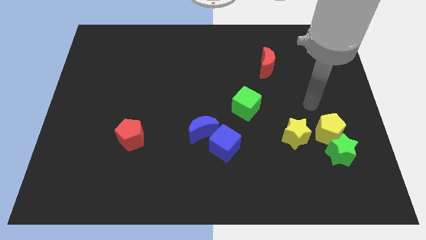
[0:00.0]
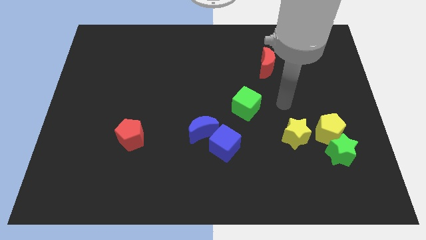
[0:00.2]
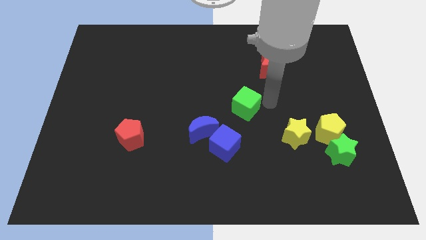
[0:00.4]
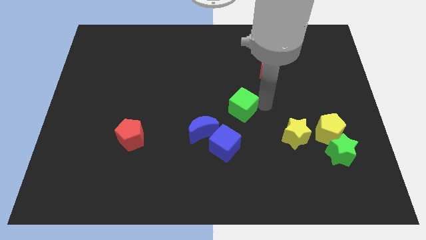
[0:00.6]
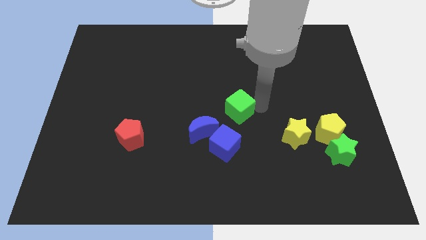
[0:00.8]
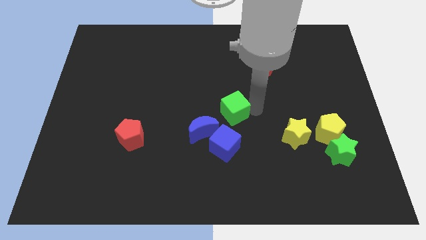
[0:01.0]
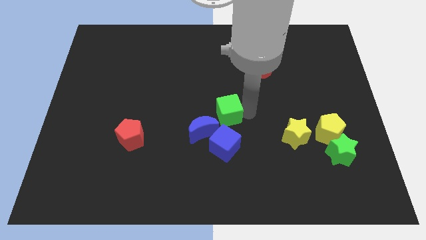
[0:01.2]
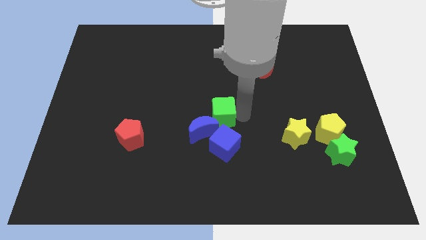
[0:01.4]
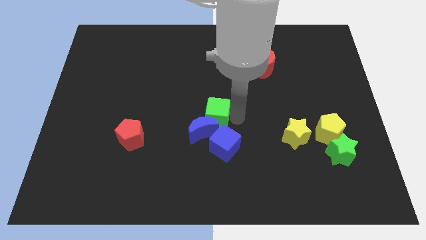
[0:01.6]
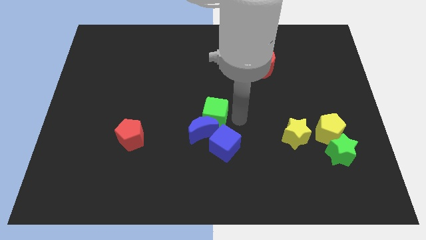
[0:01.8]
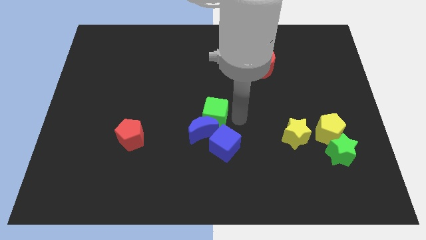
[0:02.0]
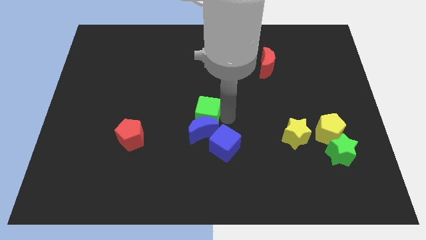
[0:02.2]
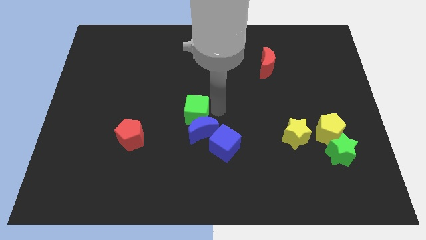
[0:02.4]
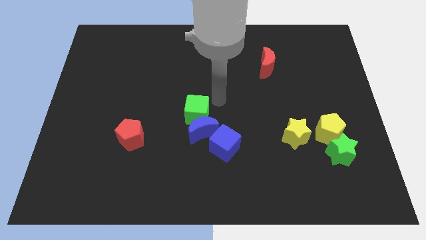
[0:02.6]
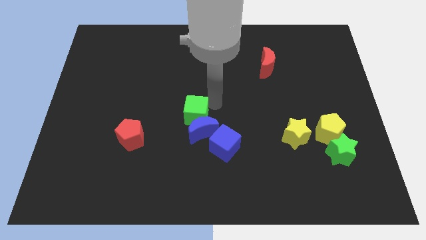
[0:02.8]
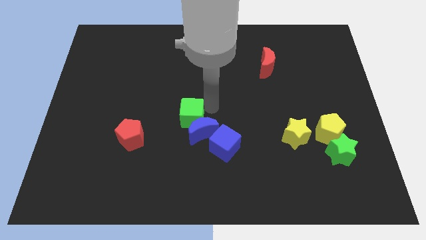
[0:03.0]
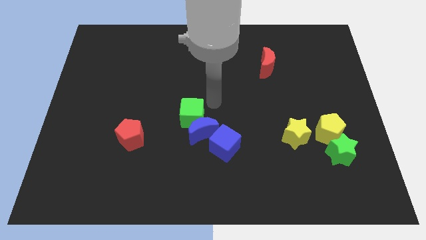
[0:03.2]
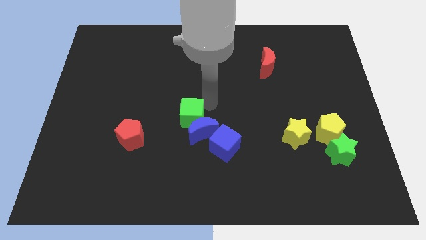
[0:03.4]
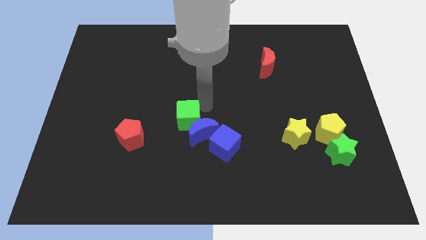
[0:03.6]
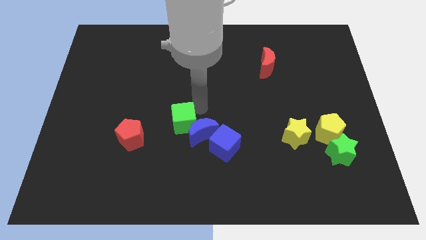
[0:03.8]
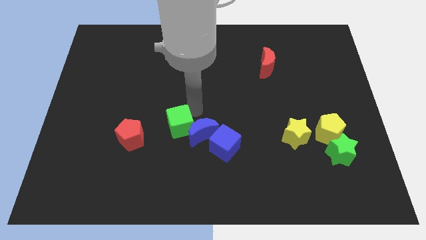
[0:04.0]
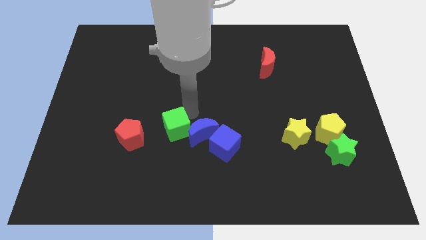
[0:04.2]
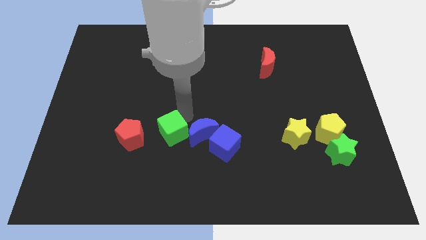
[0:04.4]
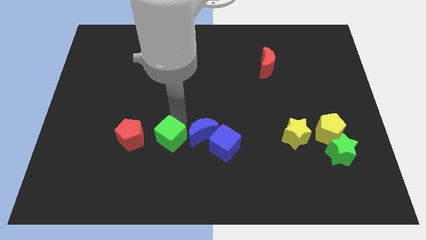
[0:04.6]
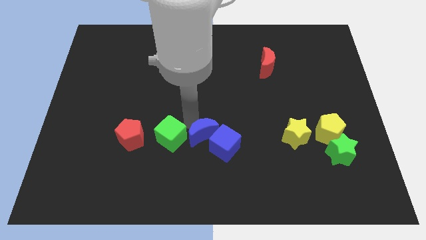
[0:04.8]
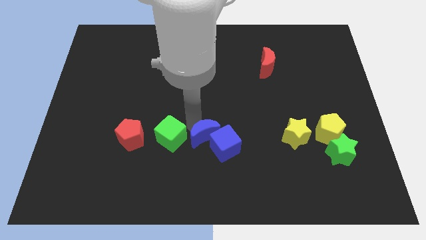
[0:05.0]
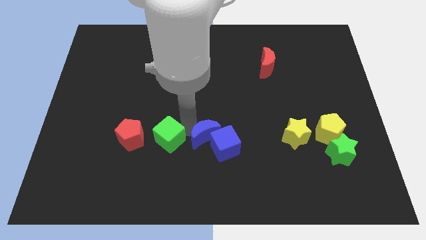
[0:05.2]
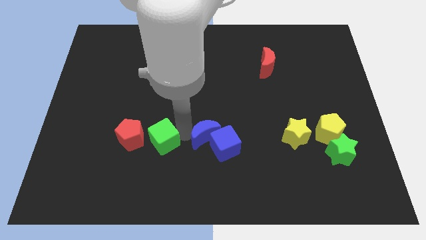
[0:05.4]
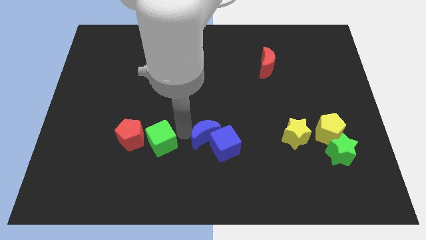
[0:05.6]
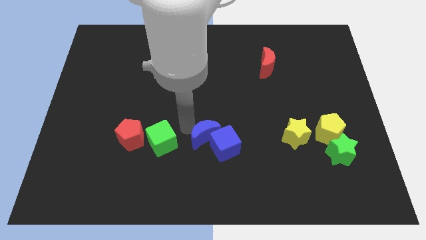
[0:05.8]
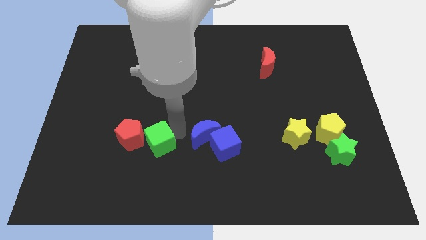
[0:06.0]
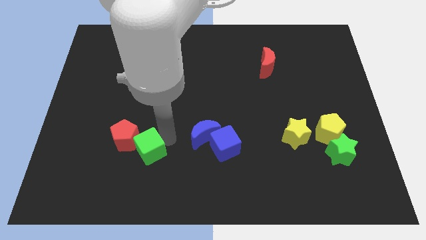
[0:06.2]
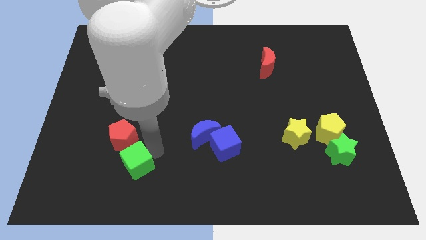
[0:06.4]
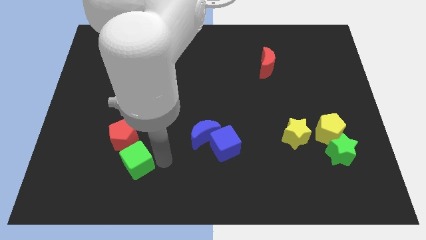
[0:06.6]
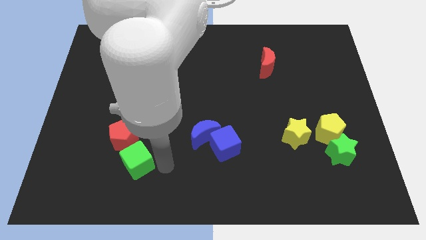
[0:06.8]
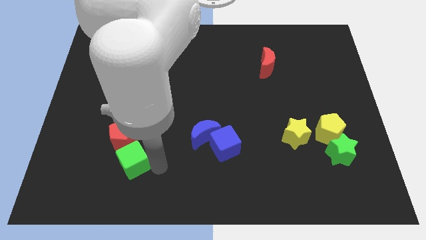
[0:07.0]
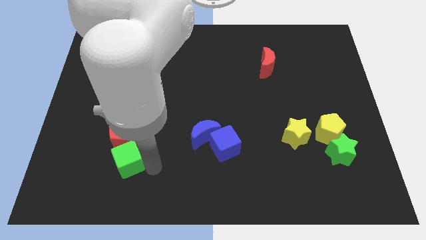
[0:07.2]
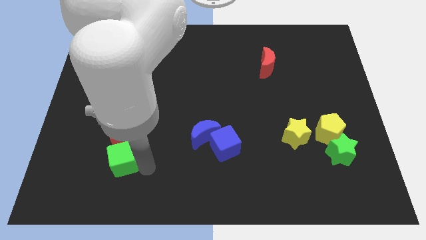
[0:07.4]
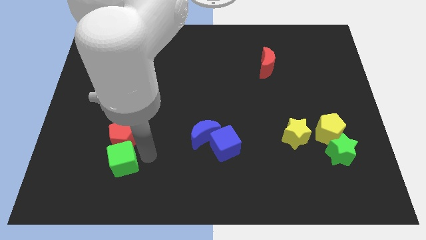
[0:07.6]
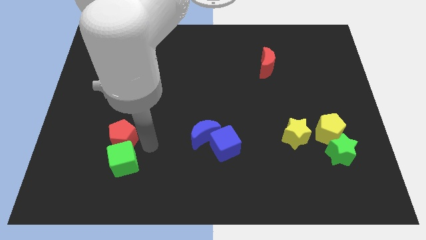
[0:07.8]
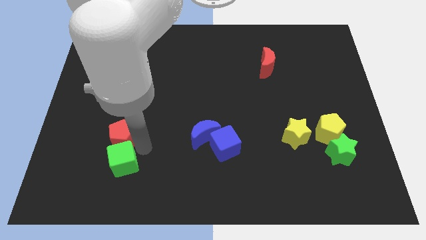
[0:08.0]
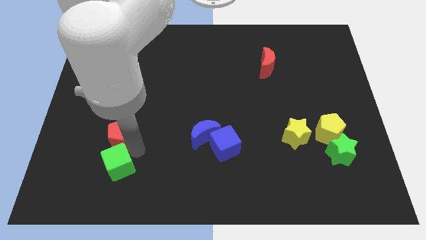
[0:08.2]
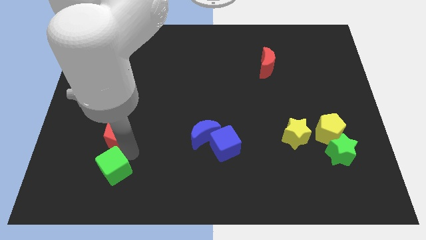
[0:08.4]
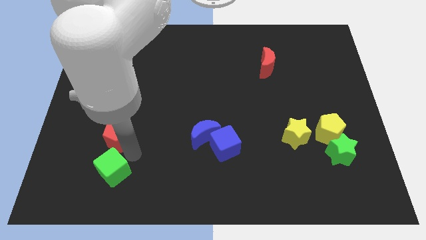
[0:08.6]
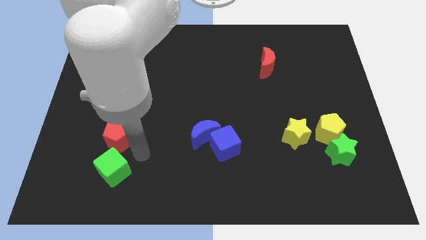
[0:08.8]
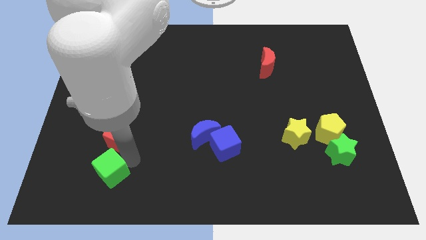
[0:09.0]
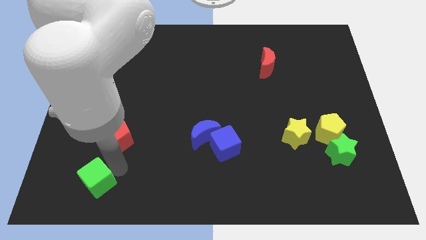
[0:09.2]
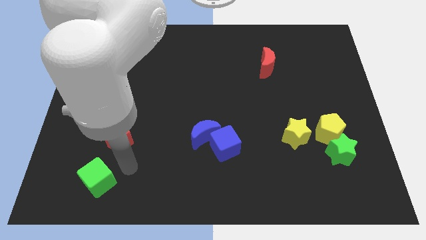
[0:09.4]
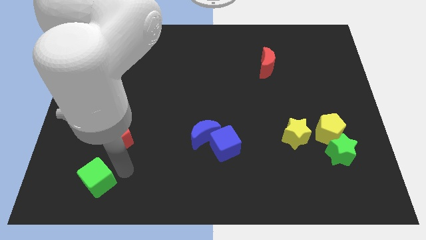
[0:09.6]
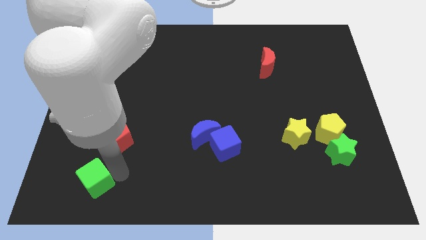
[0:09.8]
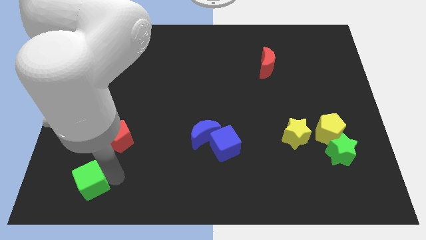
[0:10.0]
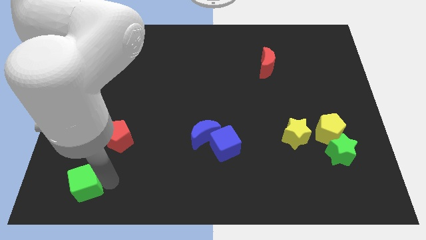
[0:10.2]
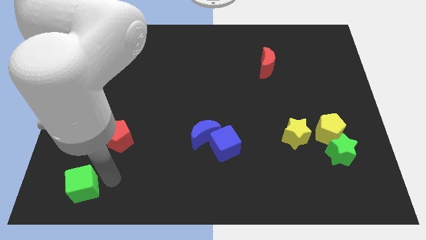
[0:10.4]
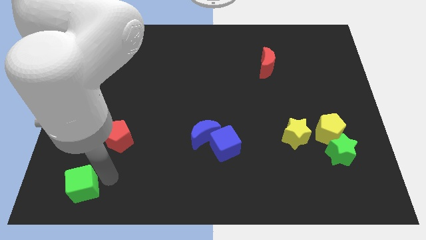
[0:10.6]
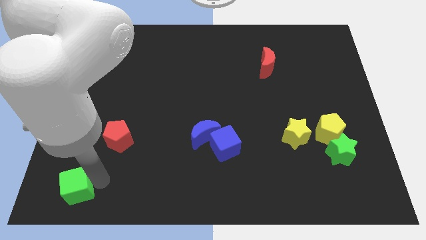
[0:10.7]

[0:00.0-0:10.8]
slide the green cube to the bottom left

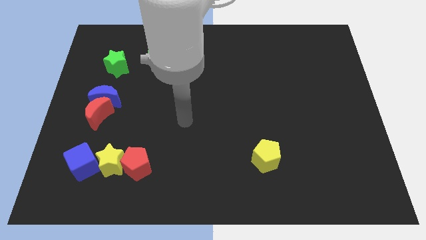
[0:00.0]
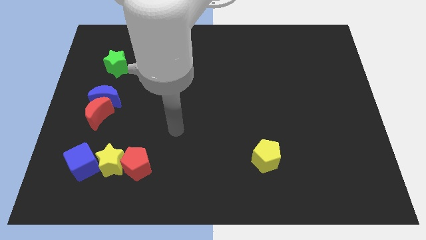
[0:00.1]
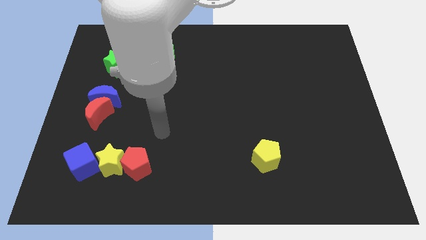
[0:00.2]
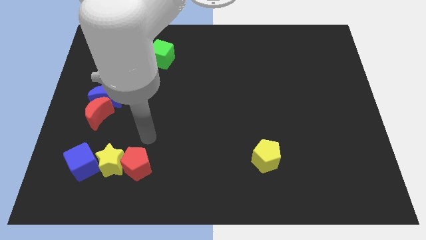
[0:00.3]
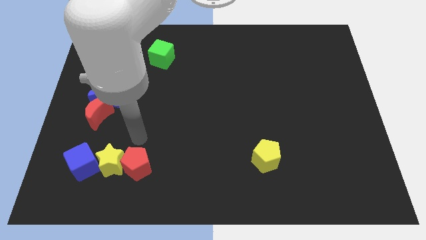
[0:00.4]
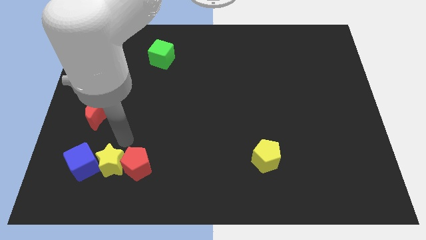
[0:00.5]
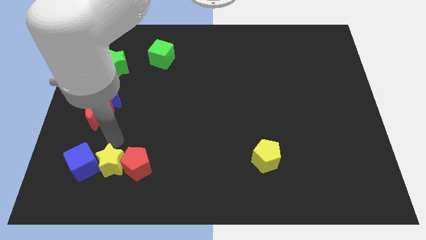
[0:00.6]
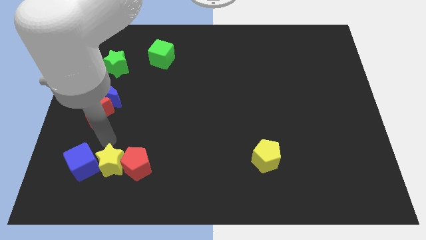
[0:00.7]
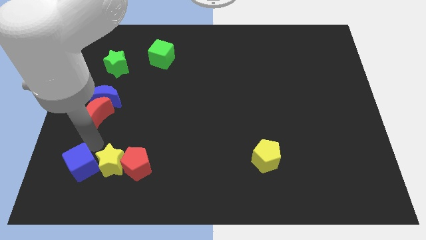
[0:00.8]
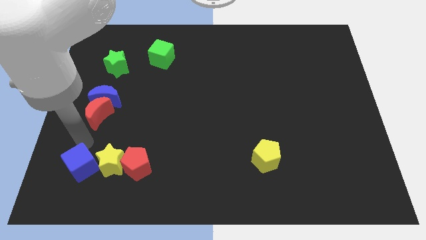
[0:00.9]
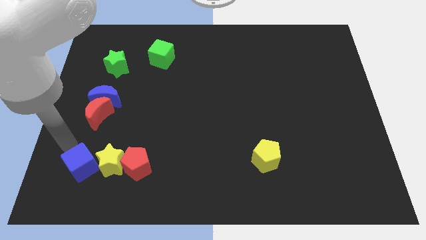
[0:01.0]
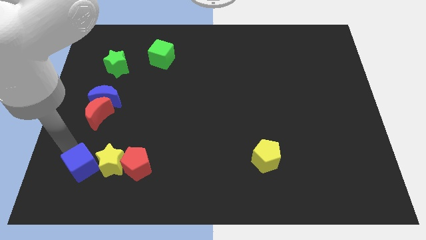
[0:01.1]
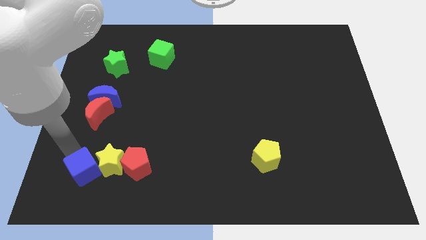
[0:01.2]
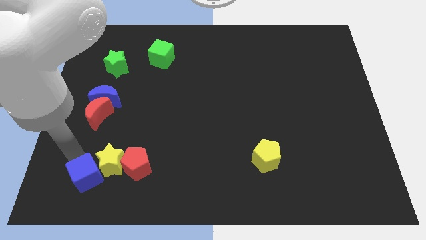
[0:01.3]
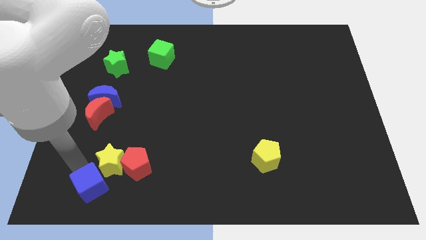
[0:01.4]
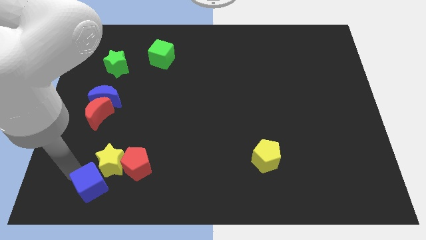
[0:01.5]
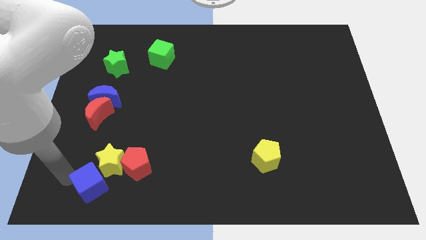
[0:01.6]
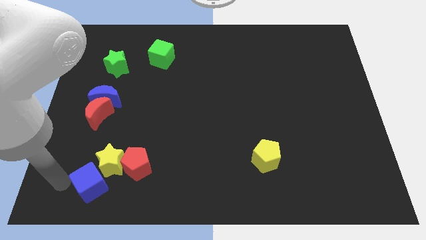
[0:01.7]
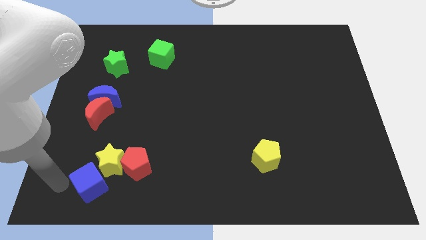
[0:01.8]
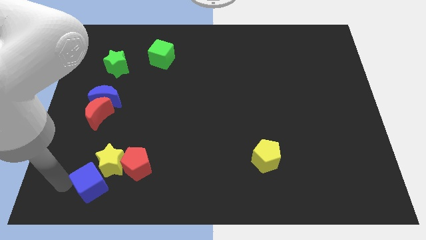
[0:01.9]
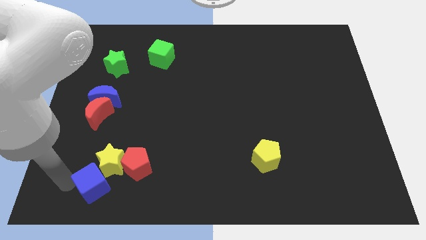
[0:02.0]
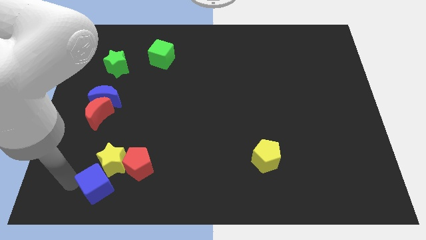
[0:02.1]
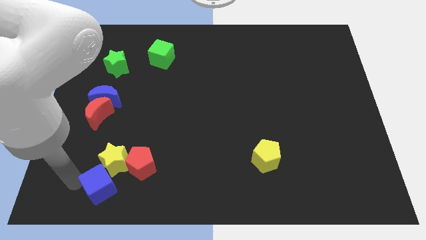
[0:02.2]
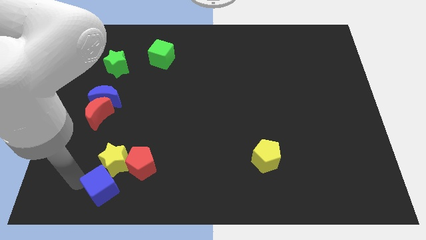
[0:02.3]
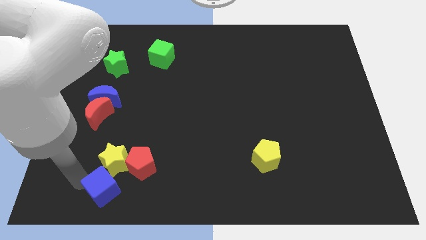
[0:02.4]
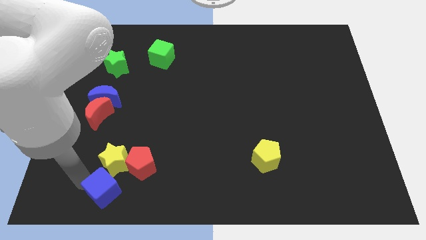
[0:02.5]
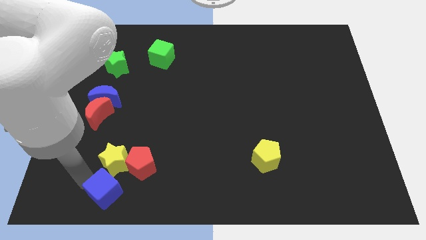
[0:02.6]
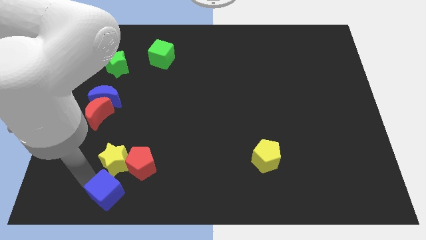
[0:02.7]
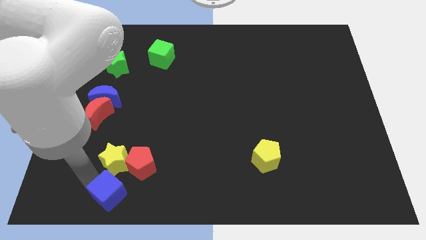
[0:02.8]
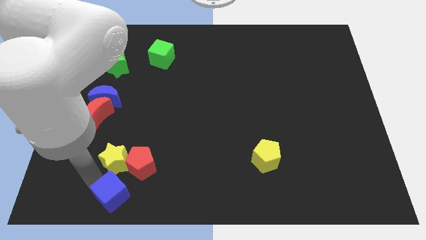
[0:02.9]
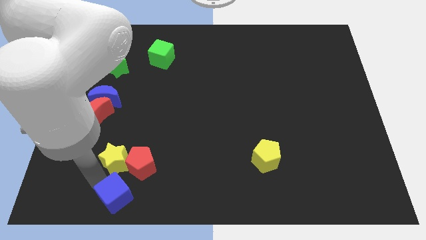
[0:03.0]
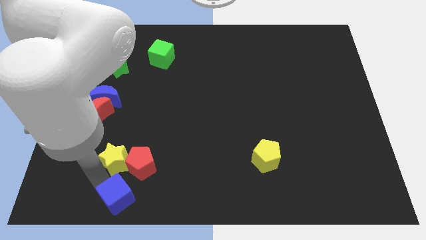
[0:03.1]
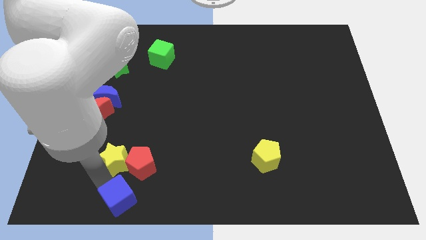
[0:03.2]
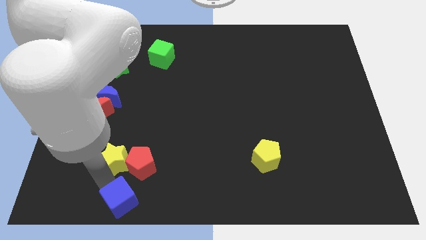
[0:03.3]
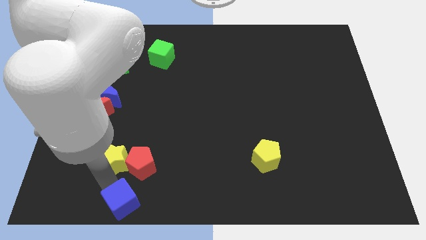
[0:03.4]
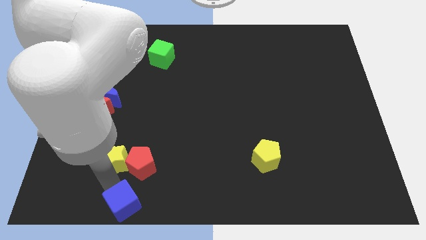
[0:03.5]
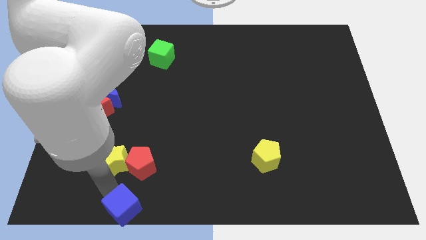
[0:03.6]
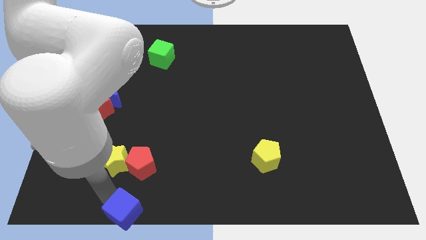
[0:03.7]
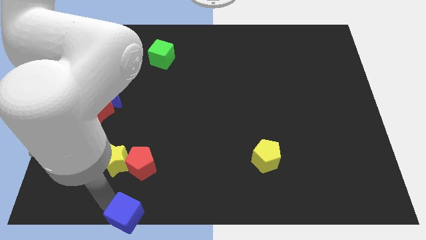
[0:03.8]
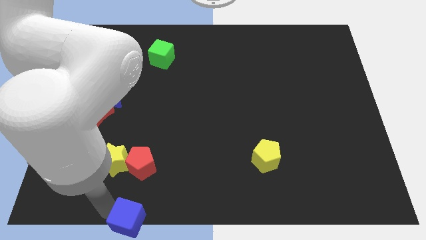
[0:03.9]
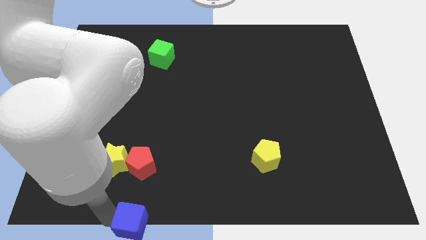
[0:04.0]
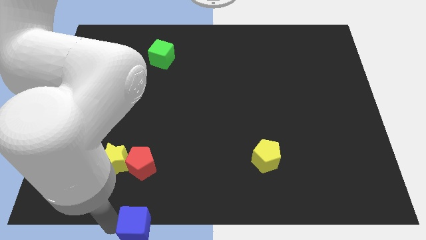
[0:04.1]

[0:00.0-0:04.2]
slide the blue cube to the bottom
